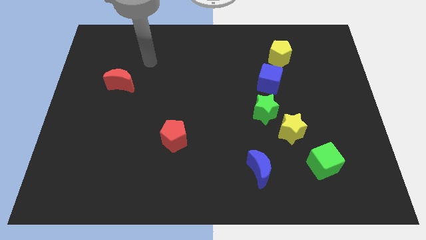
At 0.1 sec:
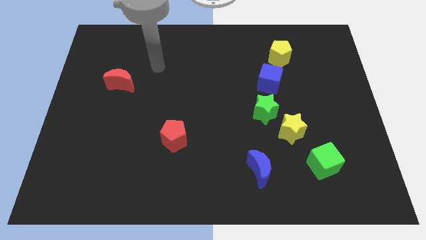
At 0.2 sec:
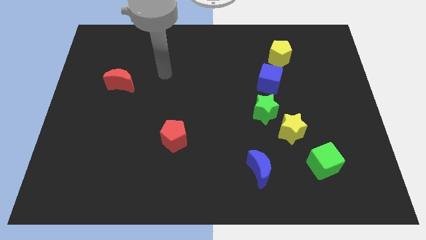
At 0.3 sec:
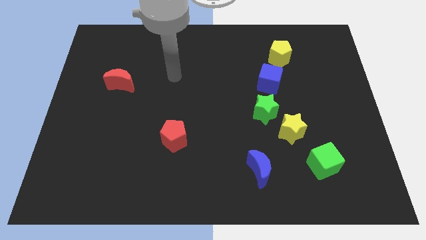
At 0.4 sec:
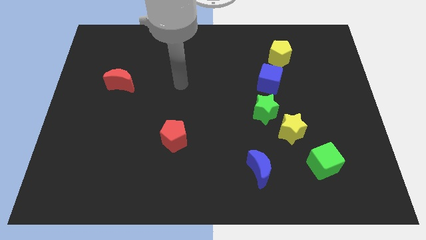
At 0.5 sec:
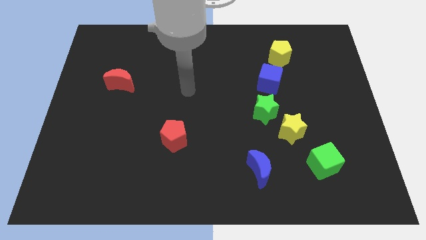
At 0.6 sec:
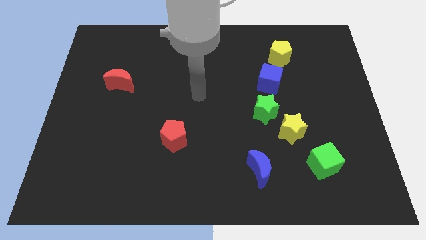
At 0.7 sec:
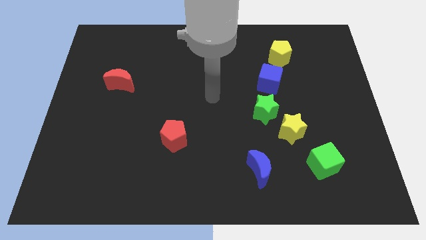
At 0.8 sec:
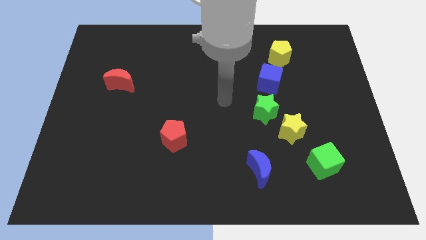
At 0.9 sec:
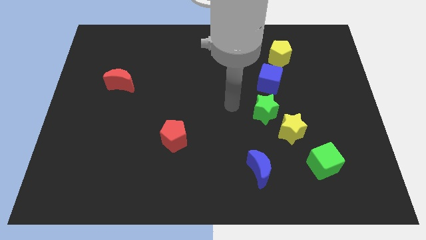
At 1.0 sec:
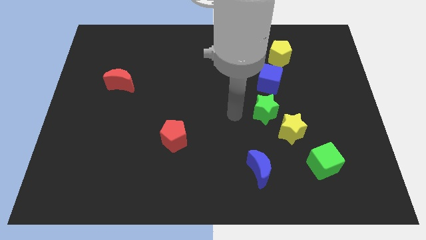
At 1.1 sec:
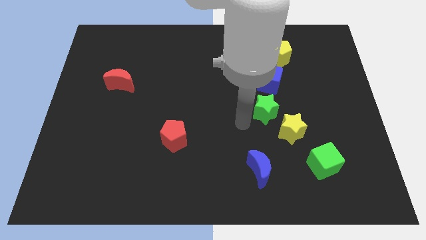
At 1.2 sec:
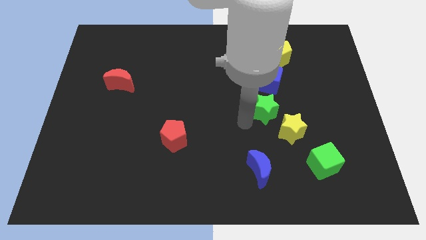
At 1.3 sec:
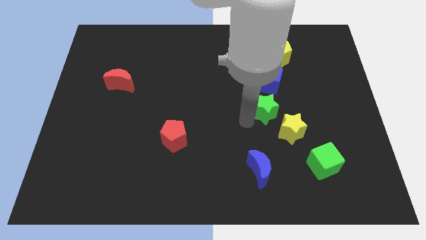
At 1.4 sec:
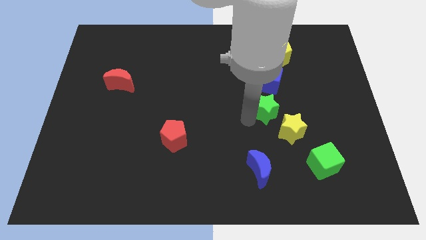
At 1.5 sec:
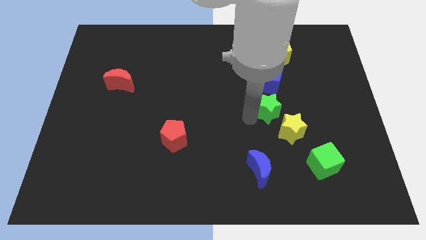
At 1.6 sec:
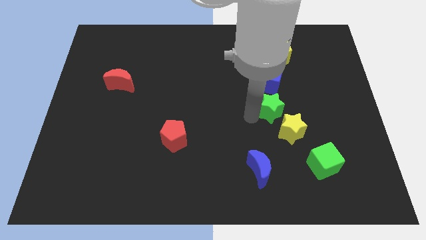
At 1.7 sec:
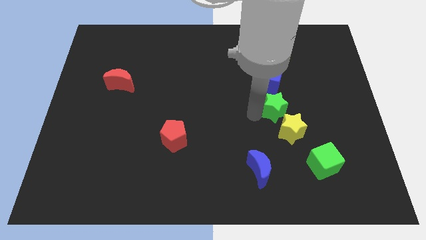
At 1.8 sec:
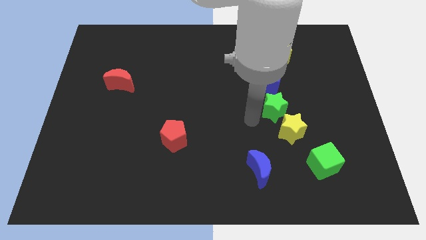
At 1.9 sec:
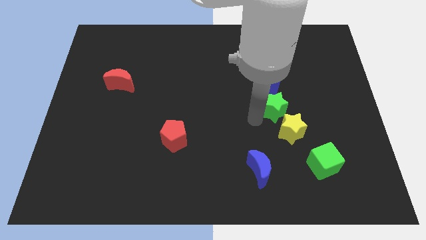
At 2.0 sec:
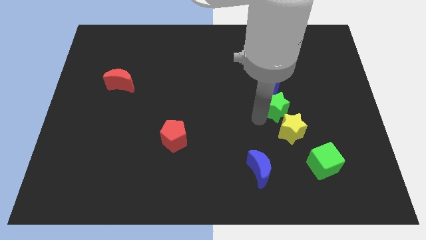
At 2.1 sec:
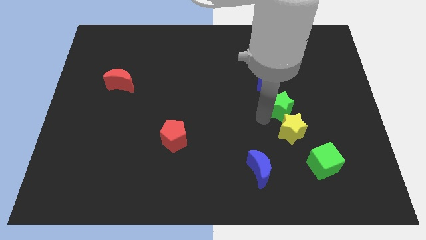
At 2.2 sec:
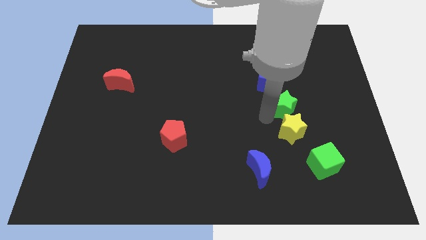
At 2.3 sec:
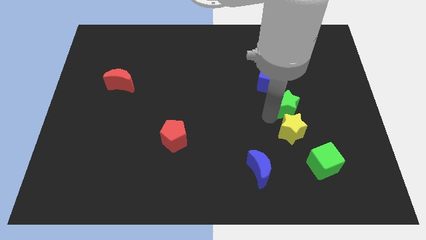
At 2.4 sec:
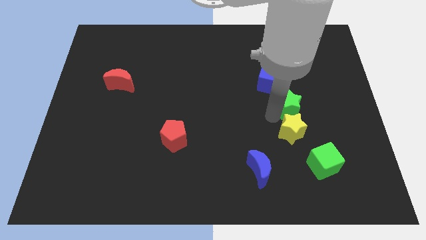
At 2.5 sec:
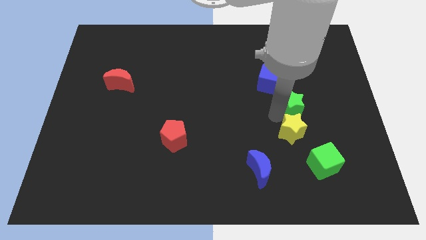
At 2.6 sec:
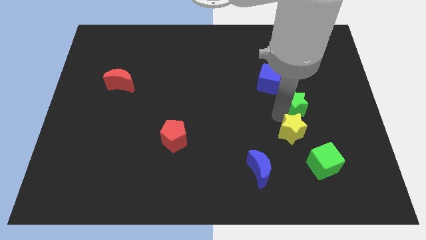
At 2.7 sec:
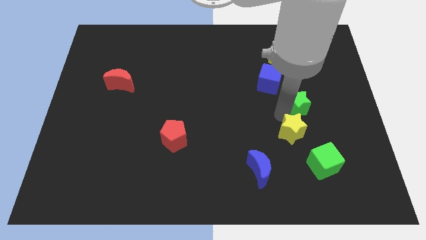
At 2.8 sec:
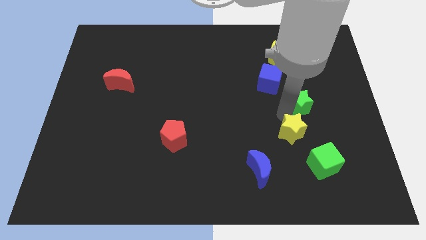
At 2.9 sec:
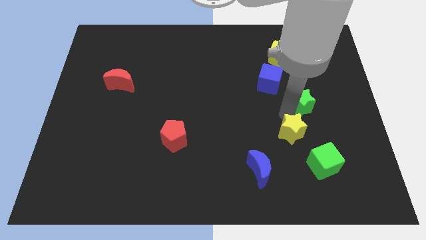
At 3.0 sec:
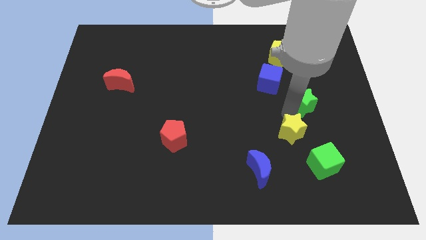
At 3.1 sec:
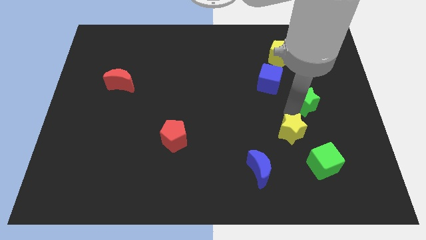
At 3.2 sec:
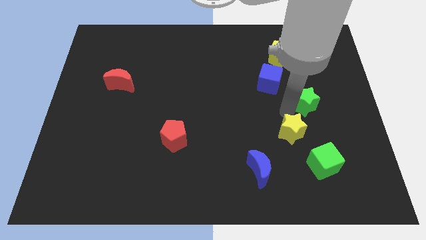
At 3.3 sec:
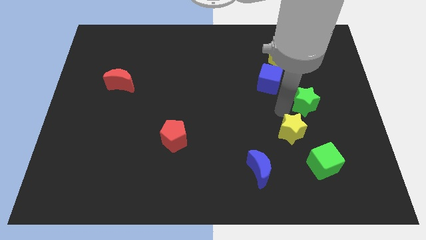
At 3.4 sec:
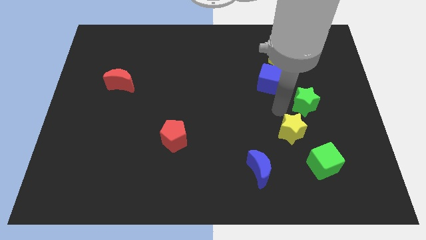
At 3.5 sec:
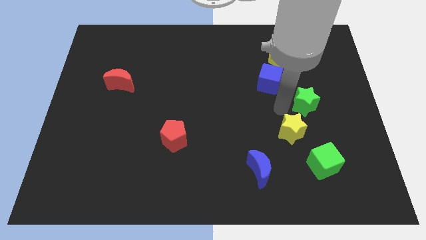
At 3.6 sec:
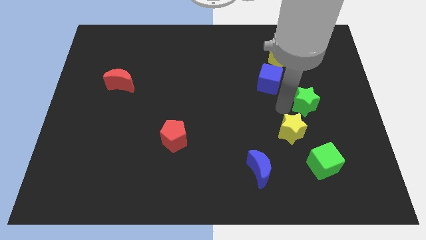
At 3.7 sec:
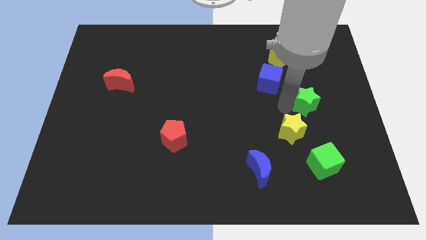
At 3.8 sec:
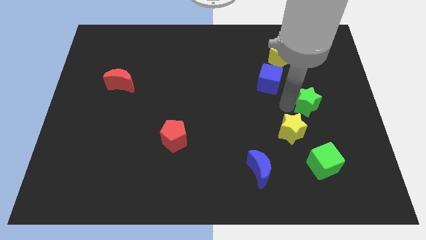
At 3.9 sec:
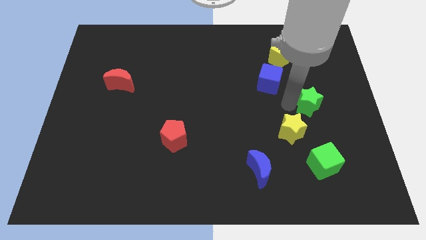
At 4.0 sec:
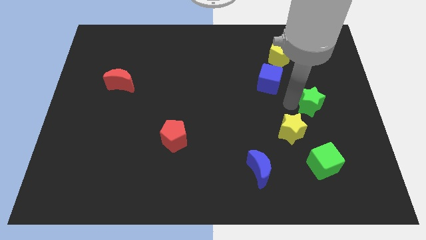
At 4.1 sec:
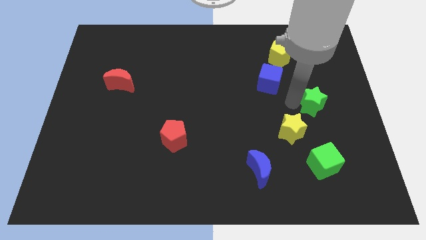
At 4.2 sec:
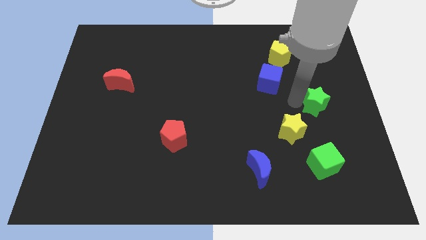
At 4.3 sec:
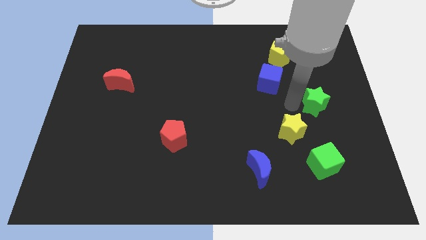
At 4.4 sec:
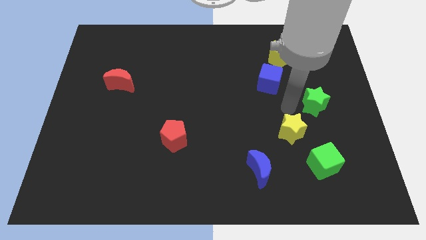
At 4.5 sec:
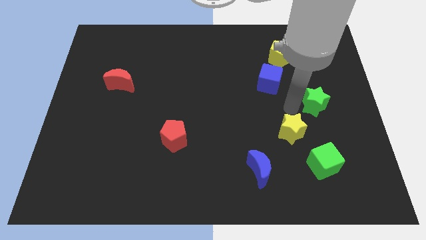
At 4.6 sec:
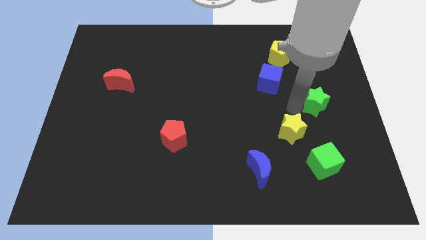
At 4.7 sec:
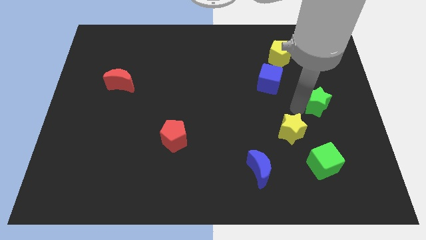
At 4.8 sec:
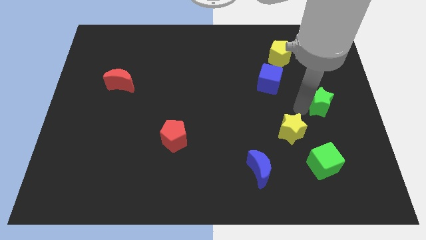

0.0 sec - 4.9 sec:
slide the green star to the center right

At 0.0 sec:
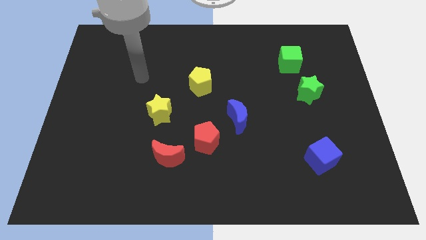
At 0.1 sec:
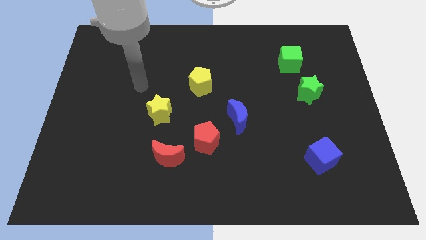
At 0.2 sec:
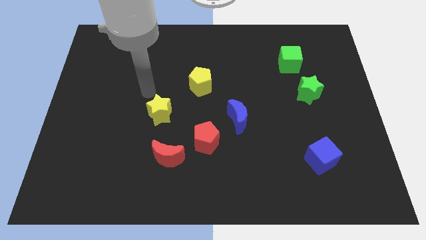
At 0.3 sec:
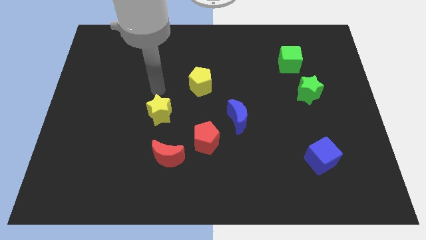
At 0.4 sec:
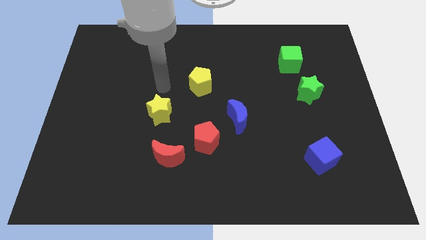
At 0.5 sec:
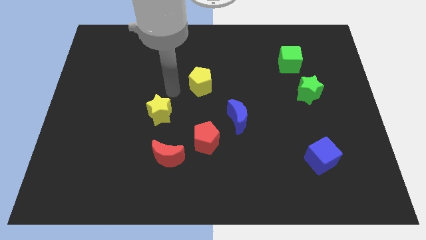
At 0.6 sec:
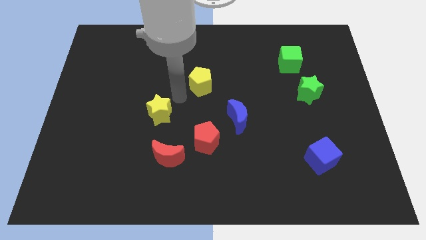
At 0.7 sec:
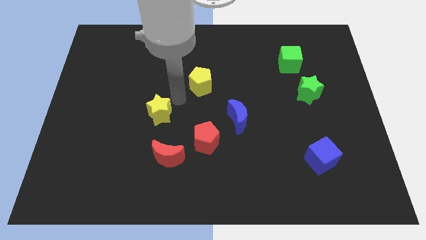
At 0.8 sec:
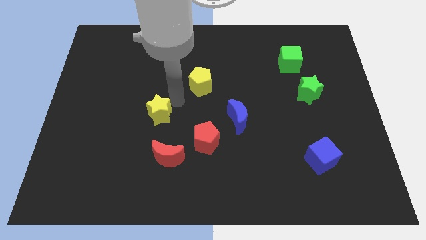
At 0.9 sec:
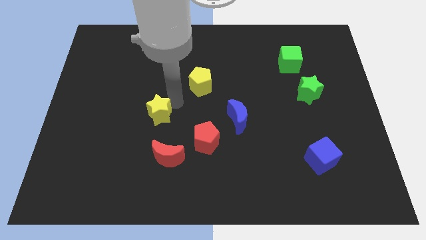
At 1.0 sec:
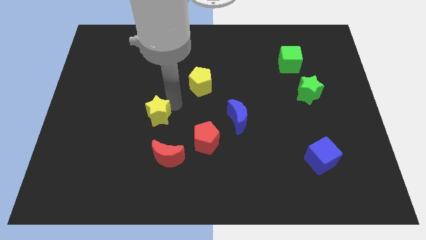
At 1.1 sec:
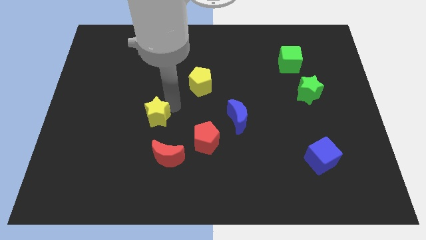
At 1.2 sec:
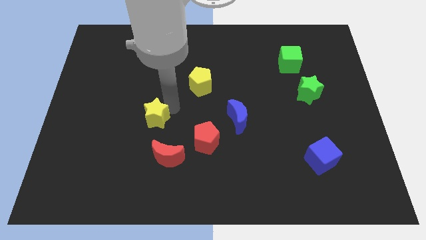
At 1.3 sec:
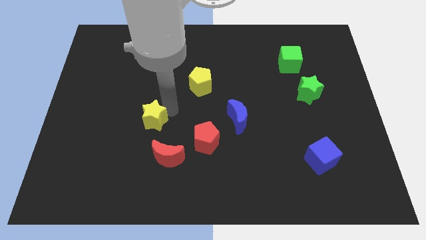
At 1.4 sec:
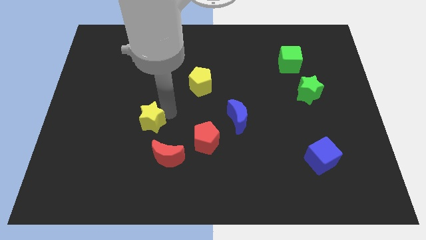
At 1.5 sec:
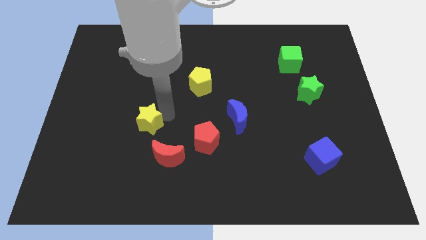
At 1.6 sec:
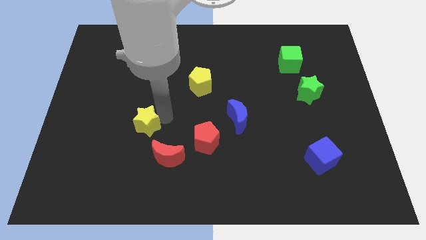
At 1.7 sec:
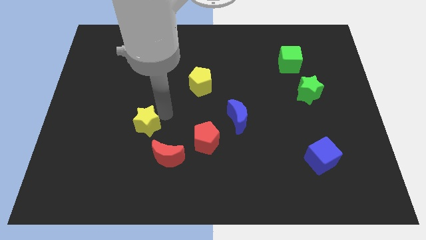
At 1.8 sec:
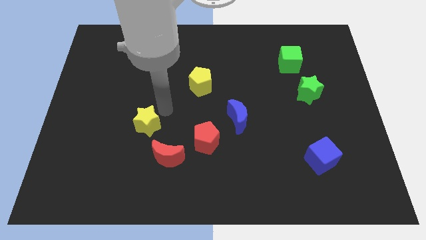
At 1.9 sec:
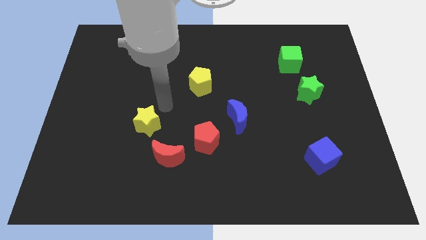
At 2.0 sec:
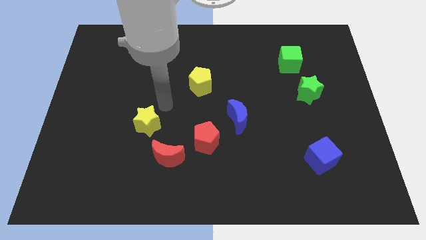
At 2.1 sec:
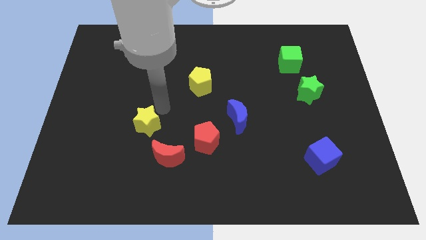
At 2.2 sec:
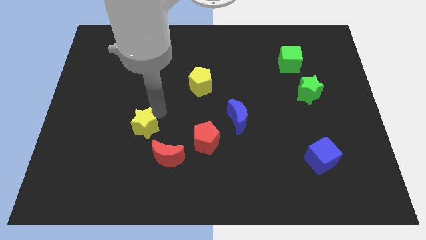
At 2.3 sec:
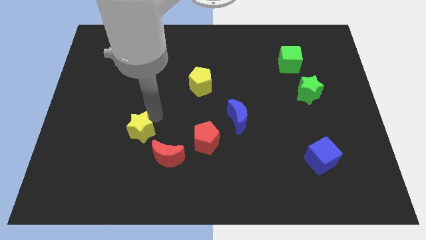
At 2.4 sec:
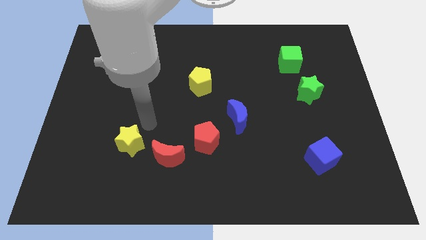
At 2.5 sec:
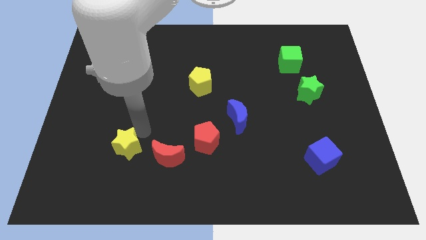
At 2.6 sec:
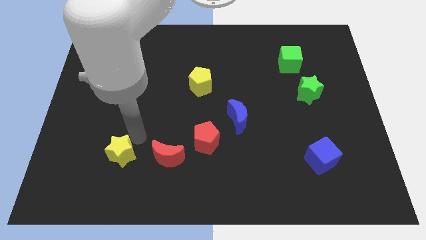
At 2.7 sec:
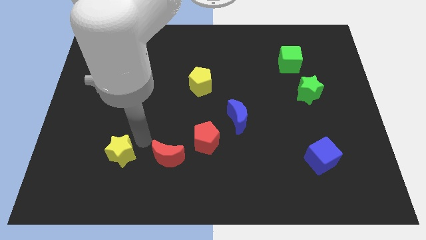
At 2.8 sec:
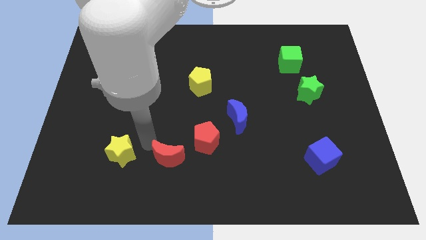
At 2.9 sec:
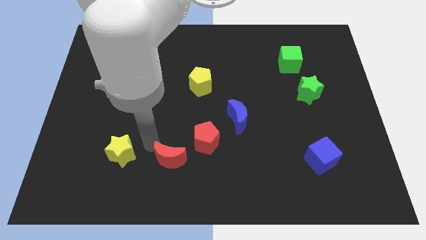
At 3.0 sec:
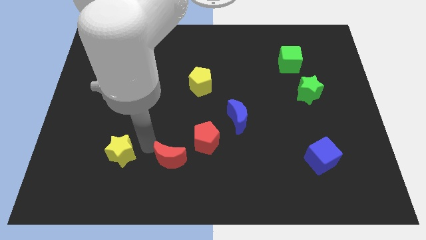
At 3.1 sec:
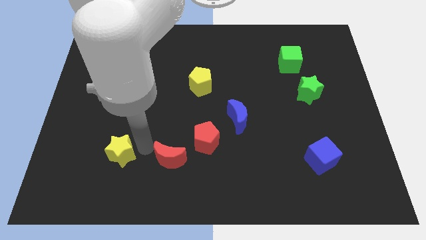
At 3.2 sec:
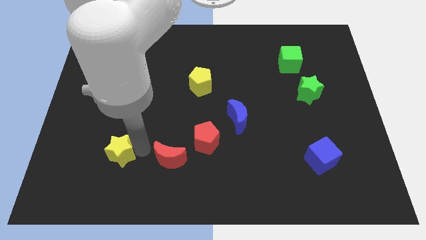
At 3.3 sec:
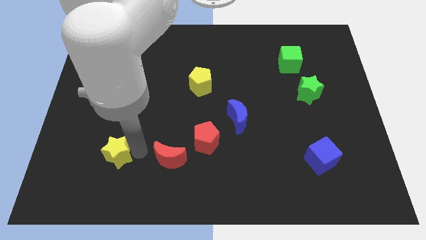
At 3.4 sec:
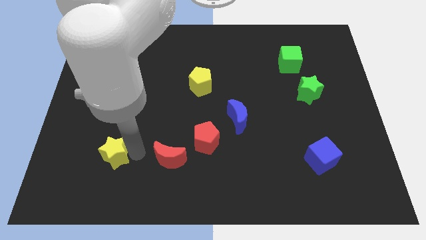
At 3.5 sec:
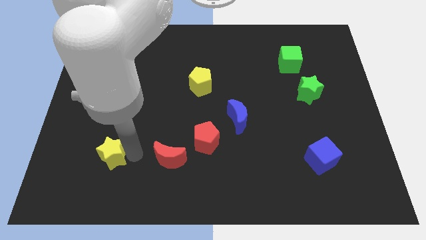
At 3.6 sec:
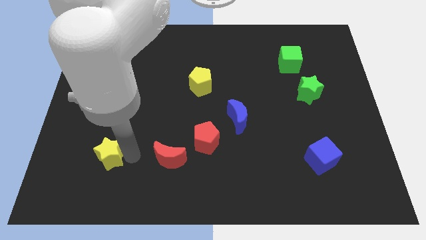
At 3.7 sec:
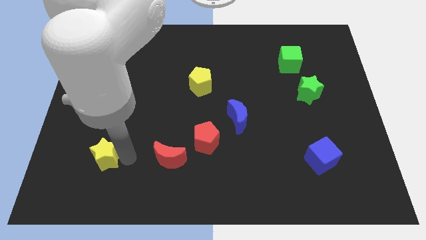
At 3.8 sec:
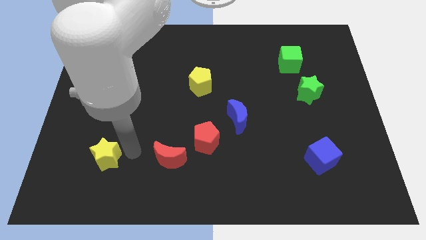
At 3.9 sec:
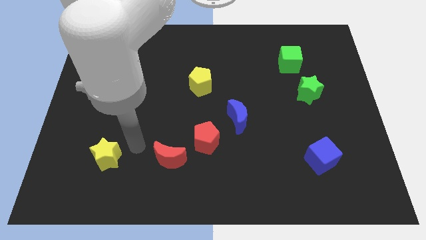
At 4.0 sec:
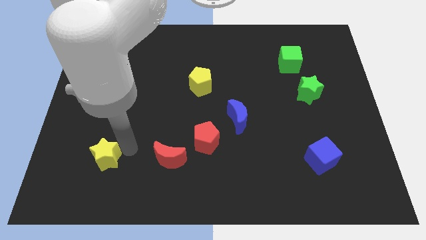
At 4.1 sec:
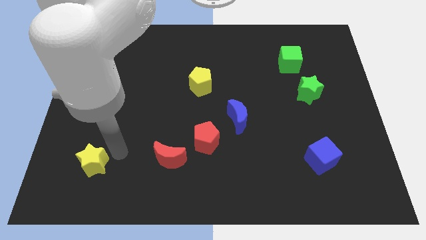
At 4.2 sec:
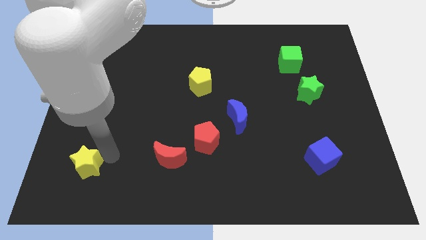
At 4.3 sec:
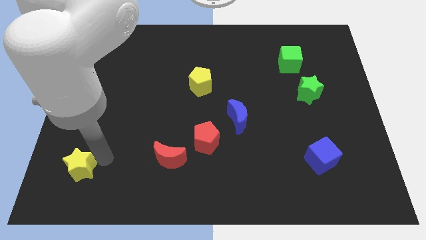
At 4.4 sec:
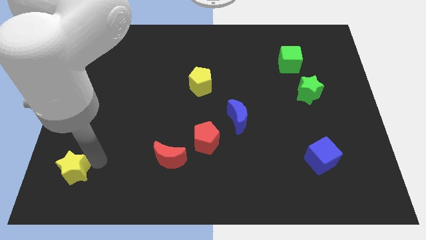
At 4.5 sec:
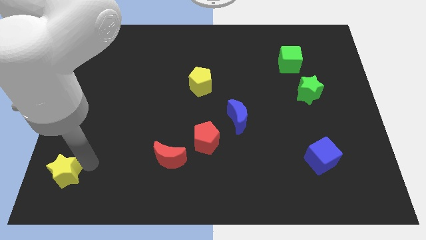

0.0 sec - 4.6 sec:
slide the yellow star to the bottom left corner
